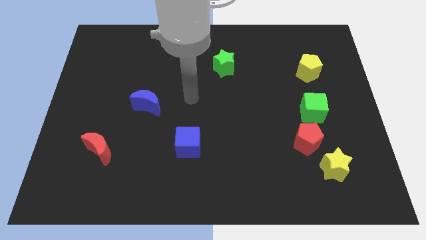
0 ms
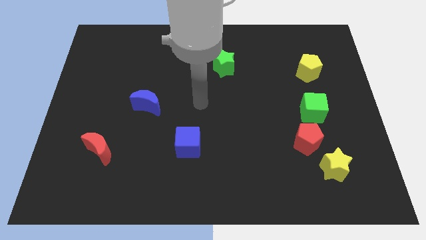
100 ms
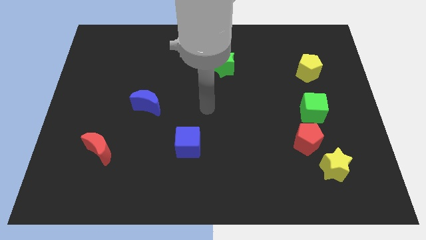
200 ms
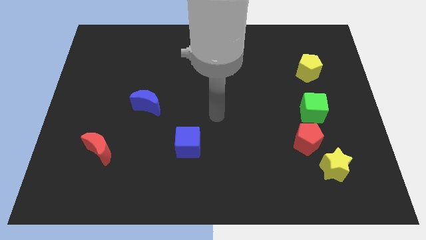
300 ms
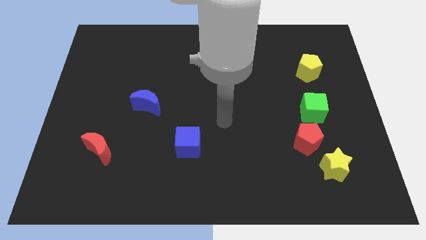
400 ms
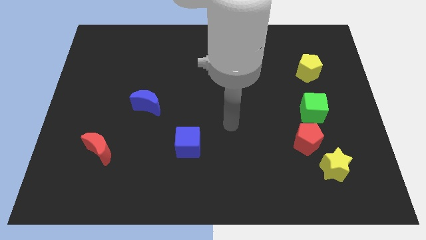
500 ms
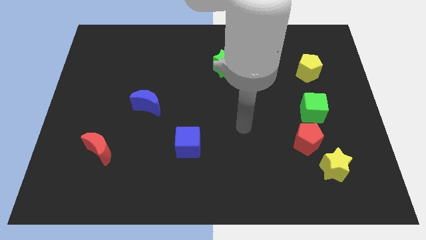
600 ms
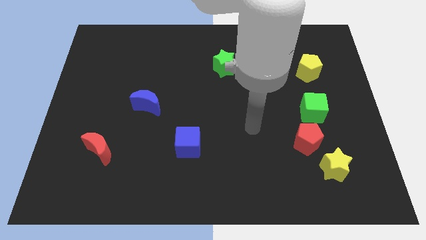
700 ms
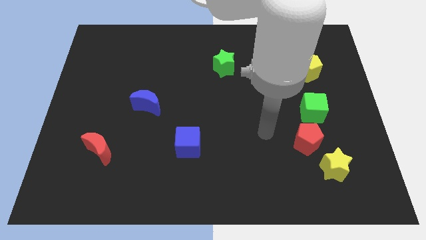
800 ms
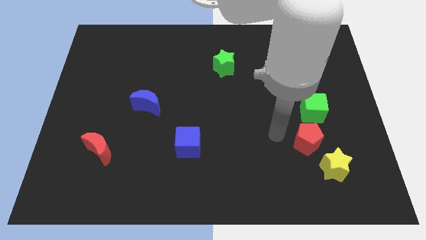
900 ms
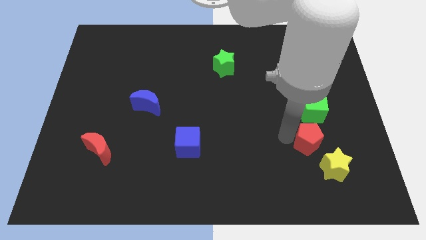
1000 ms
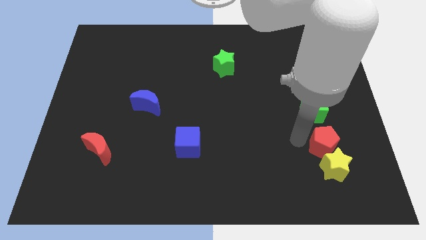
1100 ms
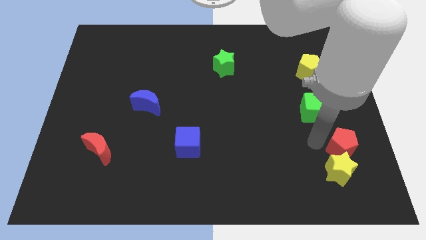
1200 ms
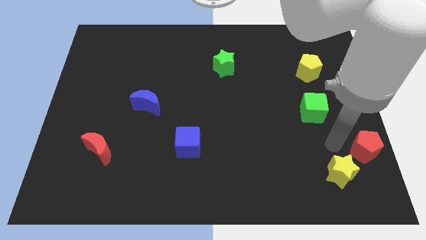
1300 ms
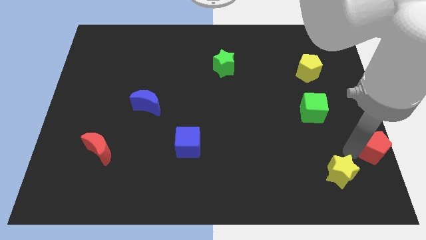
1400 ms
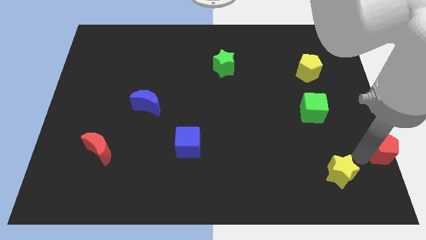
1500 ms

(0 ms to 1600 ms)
separate the yellow star from the red pentagon

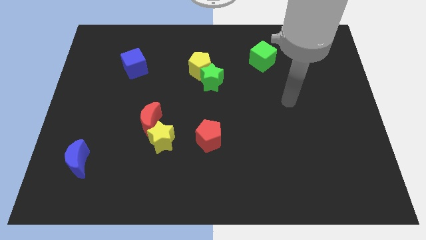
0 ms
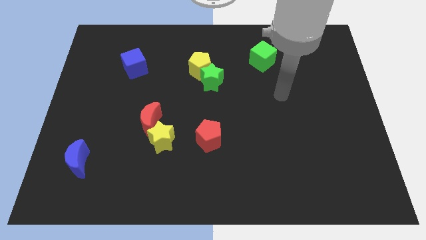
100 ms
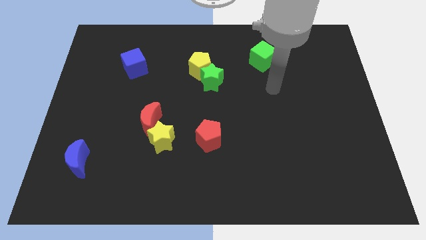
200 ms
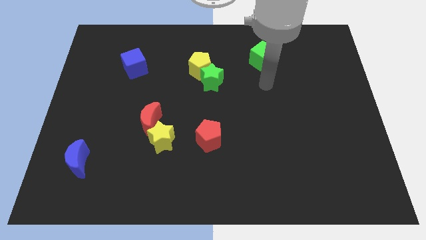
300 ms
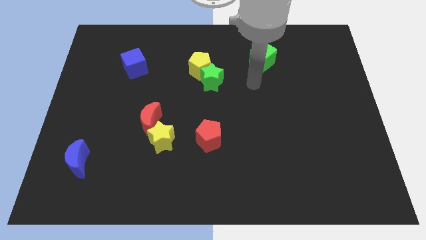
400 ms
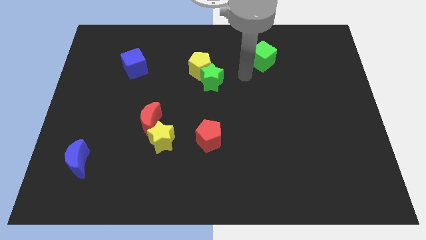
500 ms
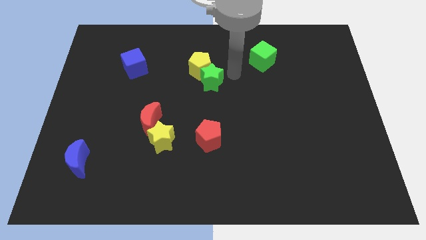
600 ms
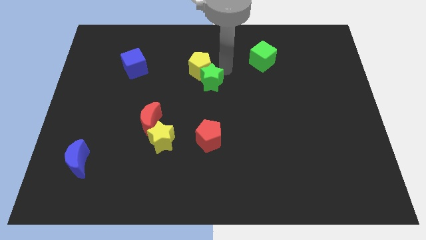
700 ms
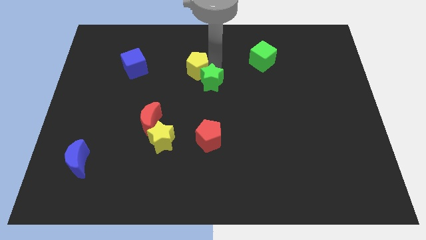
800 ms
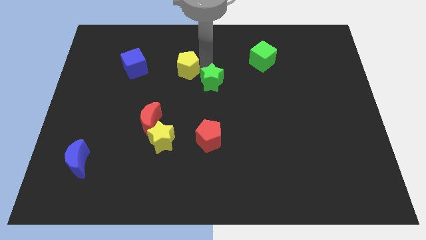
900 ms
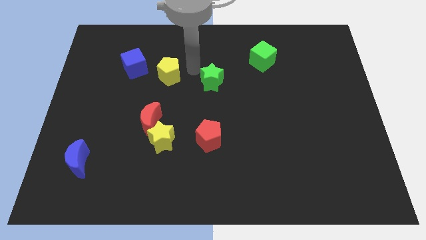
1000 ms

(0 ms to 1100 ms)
pull the green star apart from the yellow pentagon

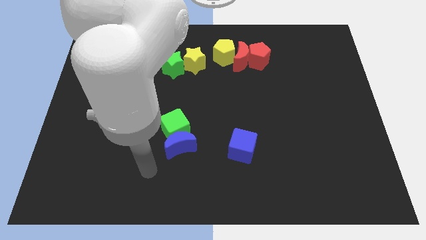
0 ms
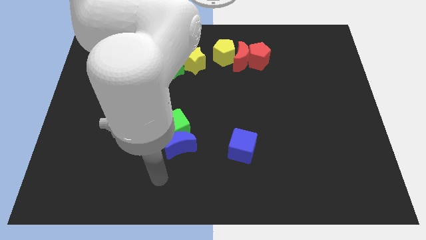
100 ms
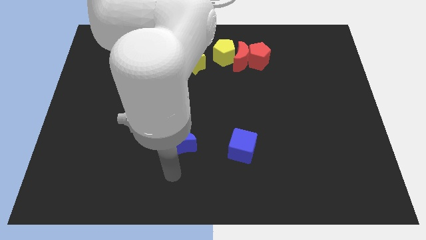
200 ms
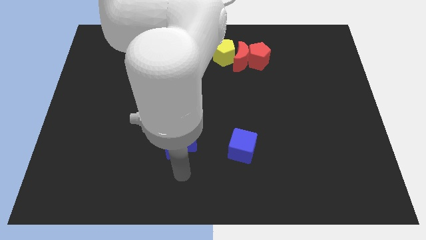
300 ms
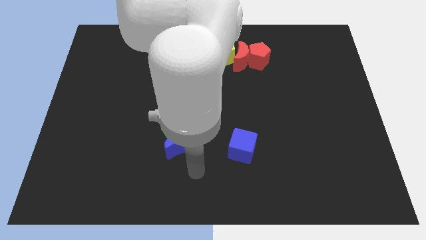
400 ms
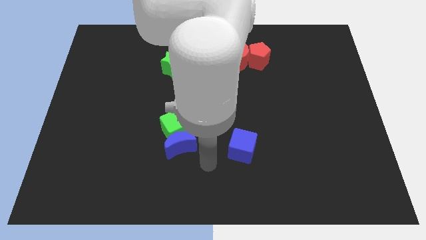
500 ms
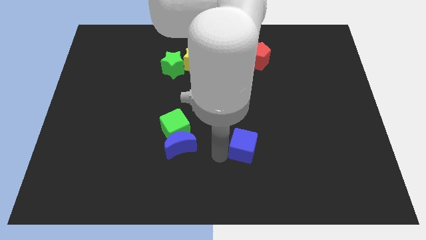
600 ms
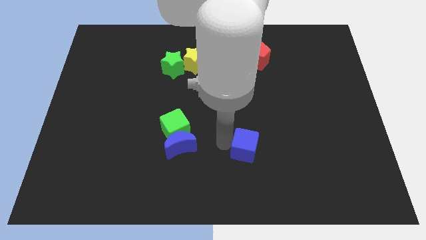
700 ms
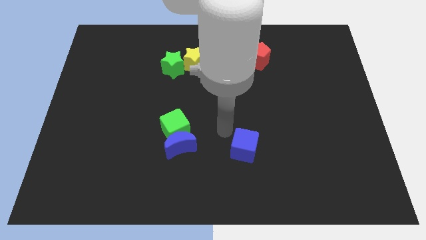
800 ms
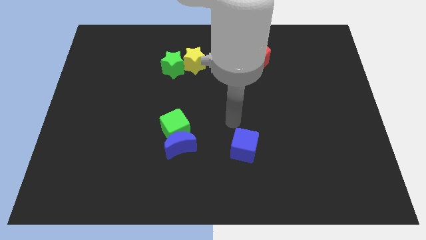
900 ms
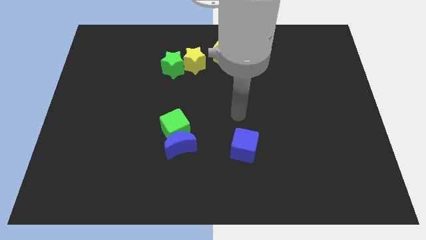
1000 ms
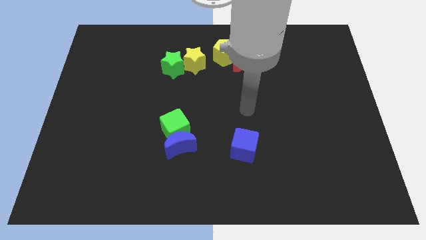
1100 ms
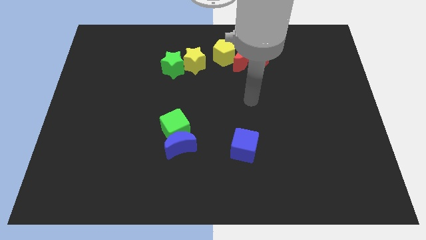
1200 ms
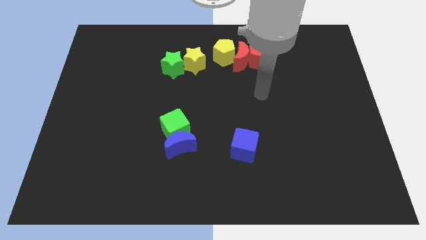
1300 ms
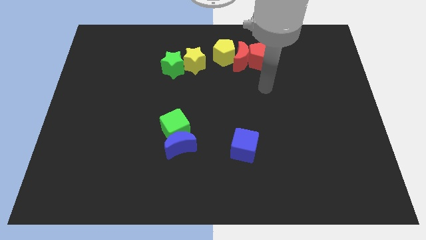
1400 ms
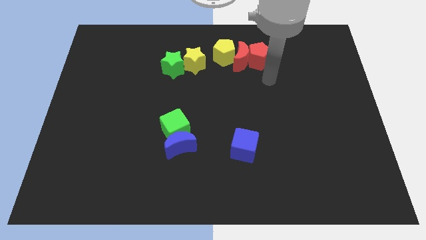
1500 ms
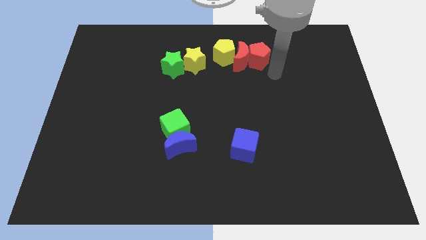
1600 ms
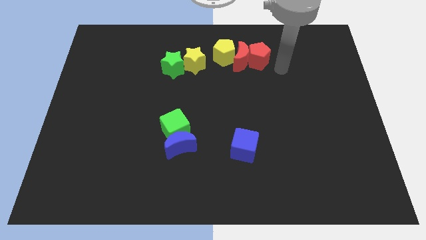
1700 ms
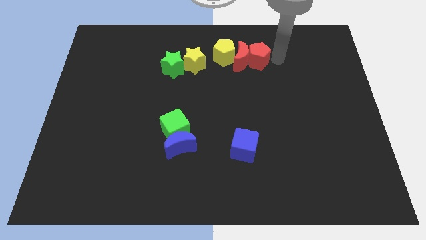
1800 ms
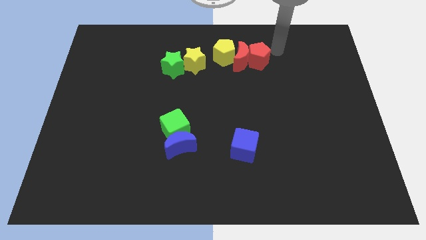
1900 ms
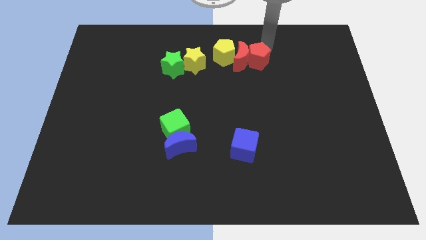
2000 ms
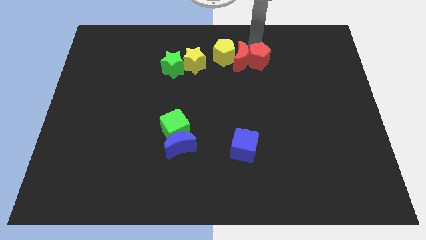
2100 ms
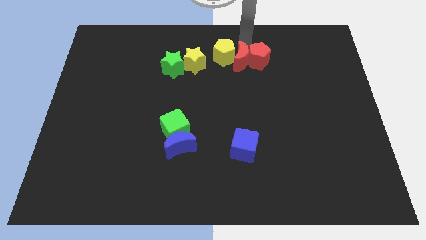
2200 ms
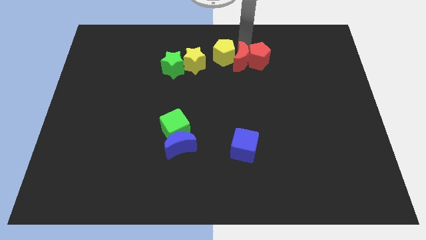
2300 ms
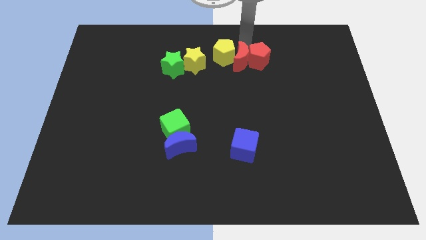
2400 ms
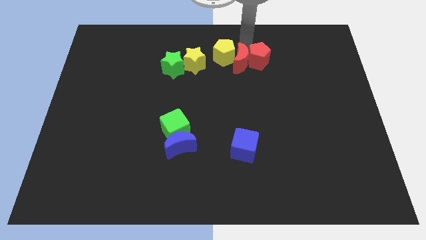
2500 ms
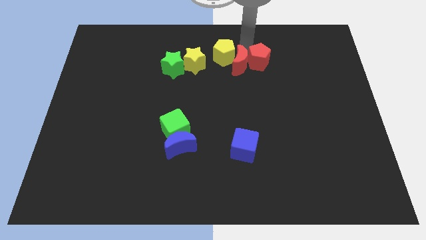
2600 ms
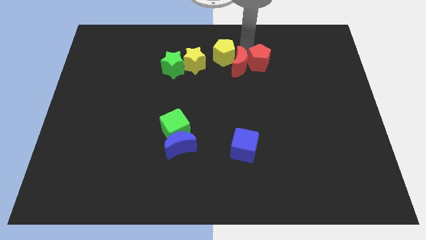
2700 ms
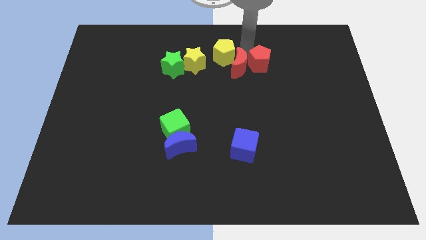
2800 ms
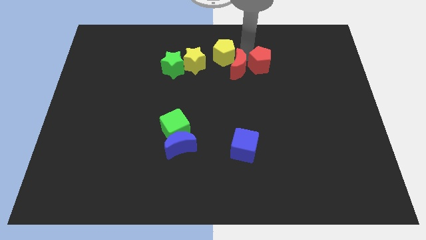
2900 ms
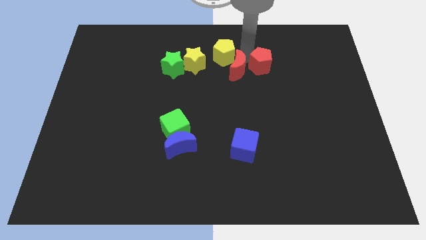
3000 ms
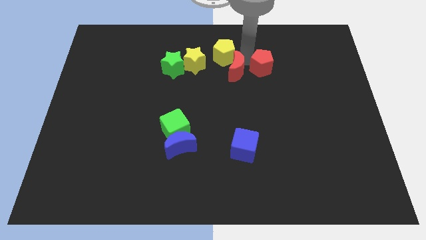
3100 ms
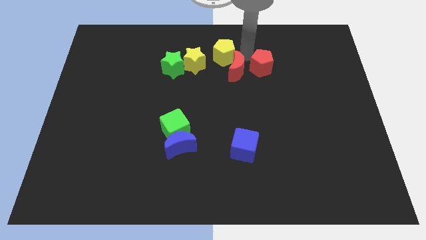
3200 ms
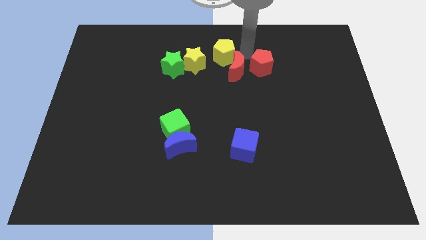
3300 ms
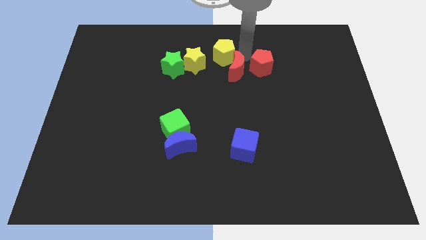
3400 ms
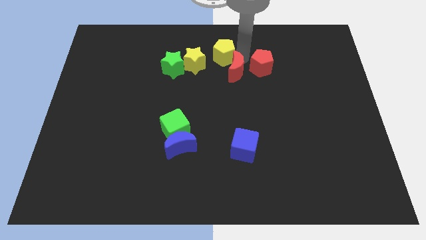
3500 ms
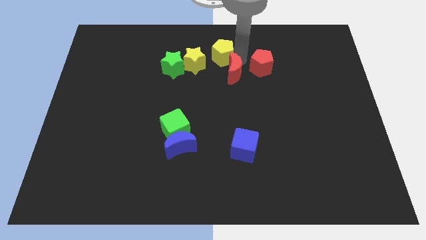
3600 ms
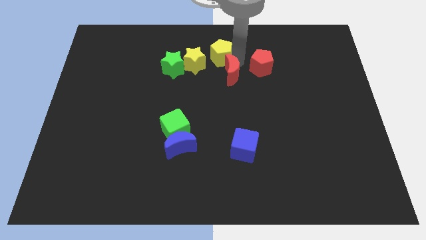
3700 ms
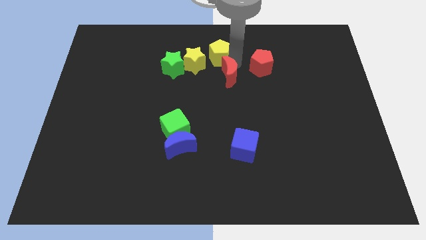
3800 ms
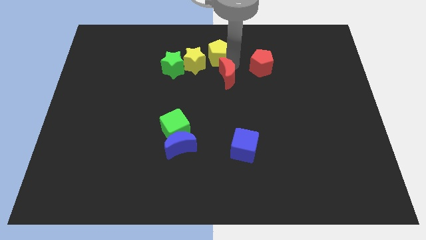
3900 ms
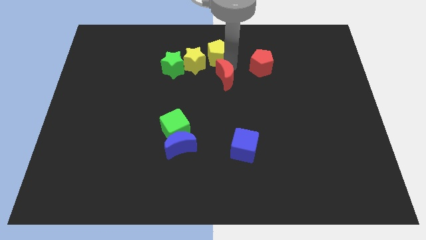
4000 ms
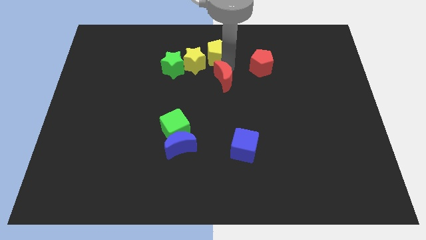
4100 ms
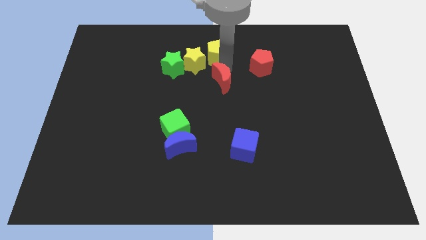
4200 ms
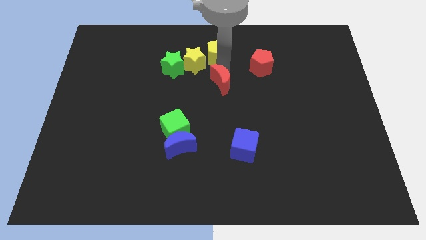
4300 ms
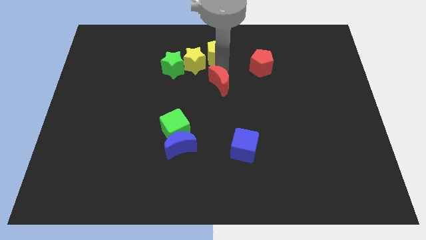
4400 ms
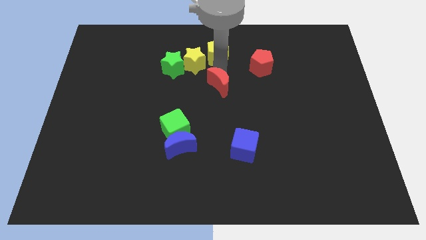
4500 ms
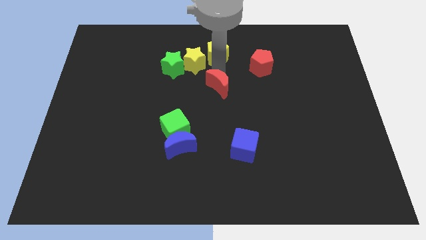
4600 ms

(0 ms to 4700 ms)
move the red moon away from the red pentagon and yellow pentagon

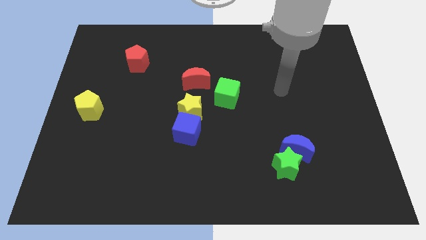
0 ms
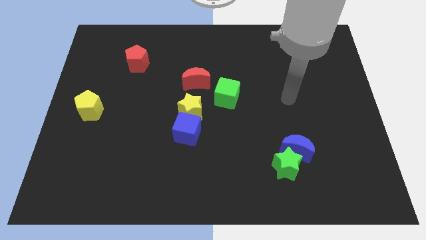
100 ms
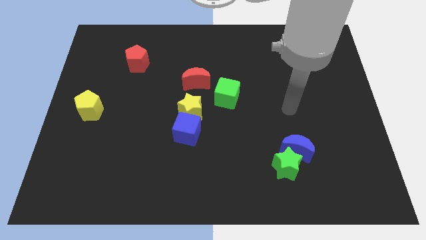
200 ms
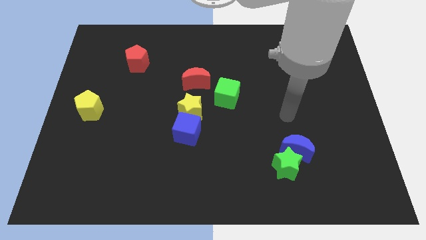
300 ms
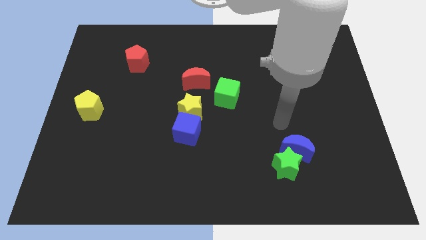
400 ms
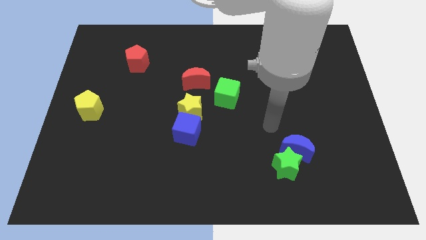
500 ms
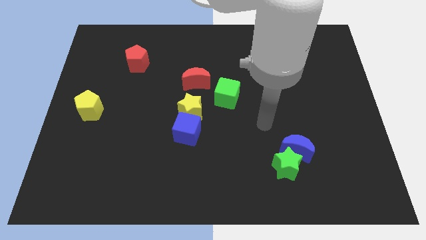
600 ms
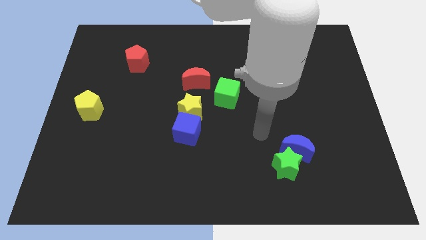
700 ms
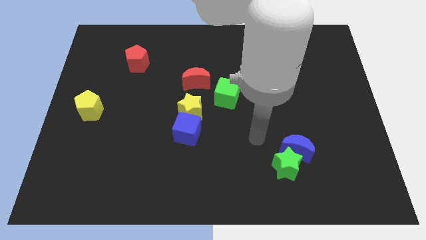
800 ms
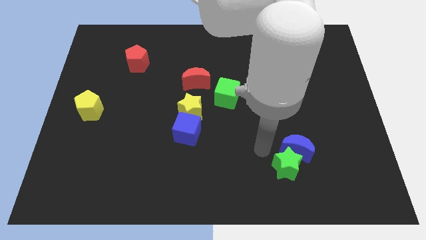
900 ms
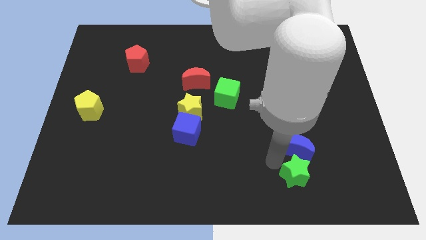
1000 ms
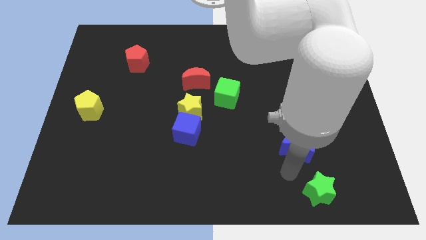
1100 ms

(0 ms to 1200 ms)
move the blue moon away from the green star

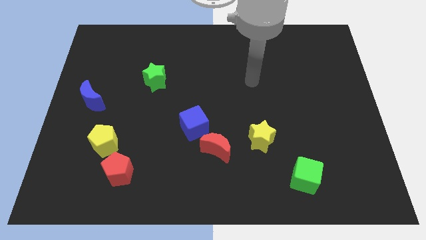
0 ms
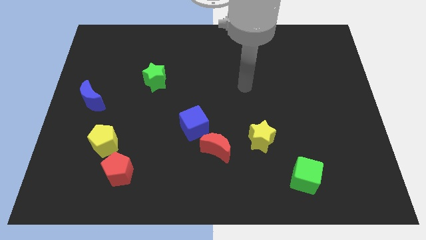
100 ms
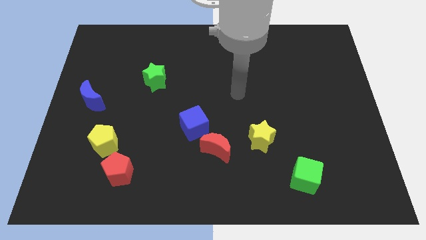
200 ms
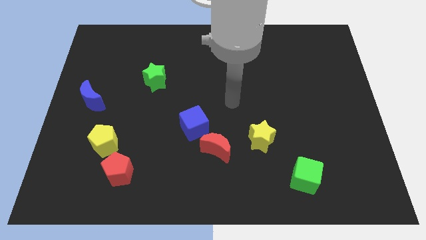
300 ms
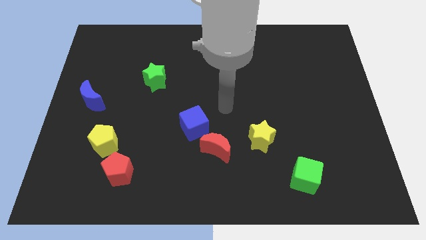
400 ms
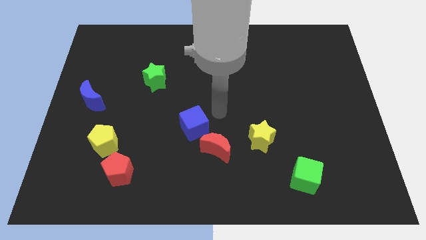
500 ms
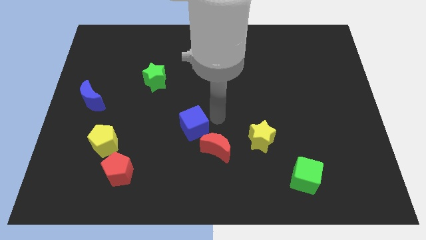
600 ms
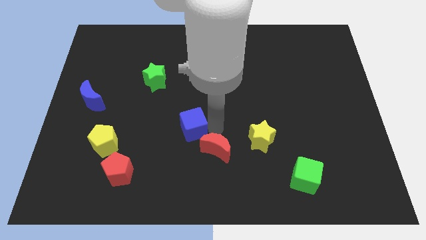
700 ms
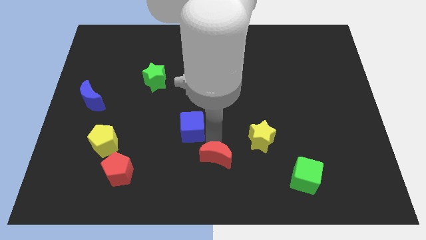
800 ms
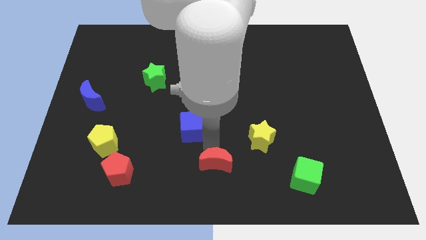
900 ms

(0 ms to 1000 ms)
move the blue cube away from the red moon
